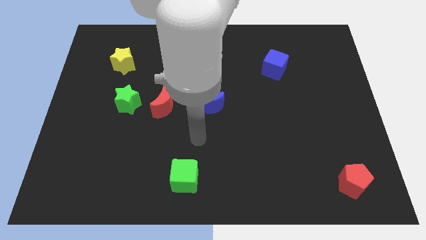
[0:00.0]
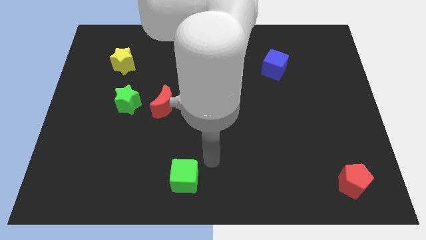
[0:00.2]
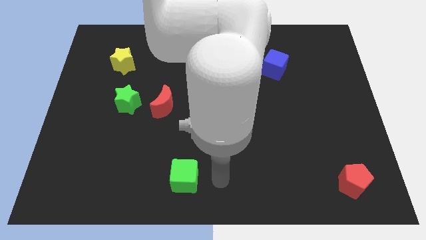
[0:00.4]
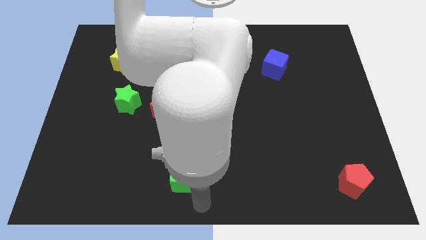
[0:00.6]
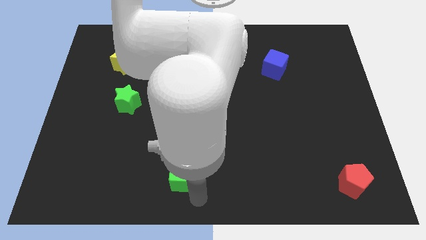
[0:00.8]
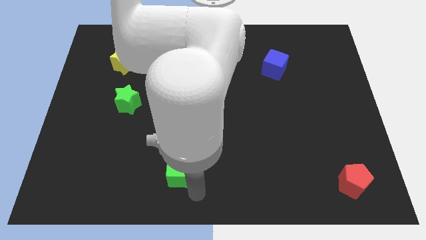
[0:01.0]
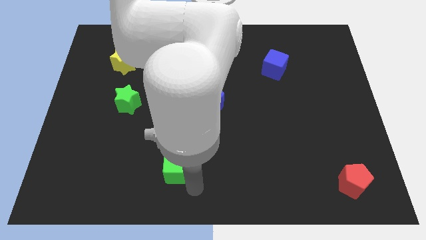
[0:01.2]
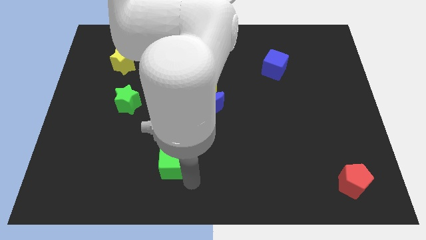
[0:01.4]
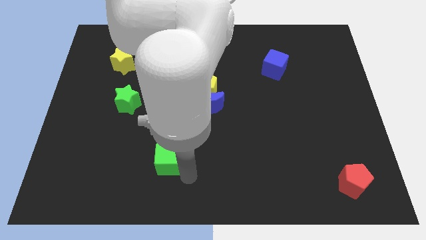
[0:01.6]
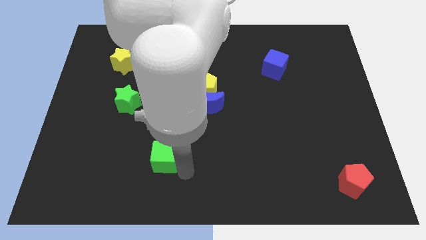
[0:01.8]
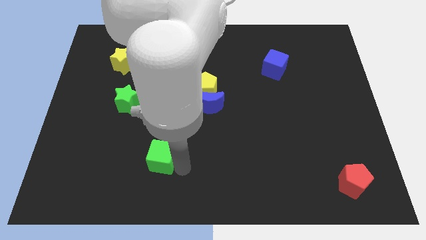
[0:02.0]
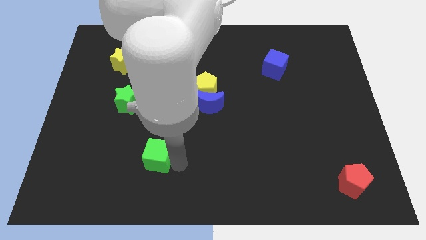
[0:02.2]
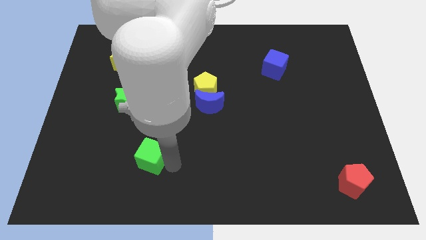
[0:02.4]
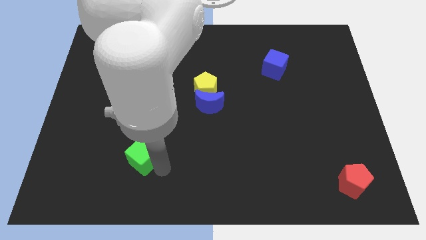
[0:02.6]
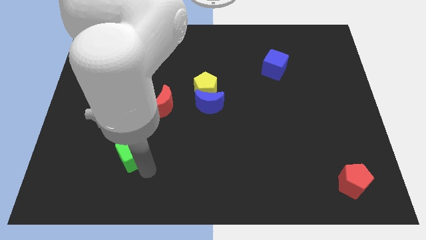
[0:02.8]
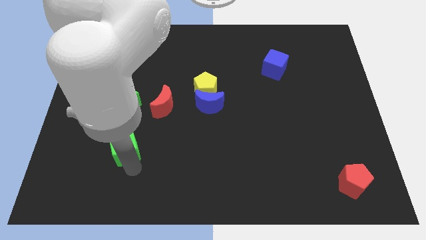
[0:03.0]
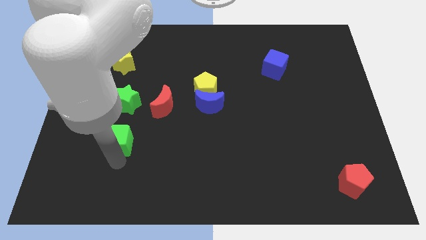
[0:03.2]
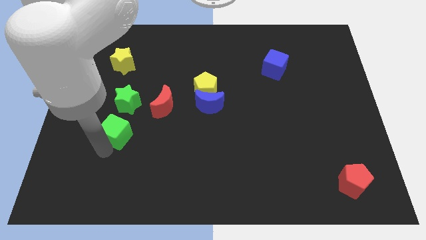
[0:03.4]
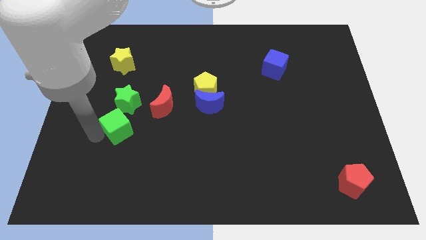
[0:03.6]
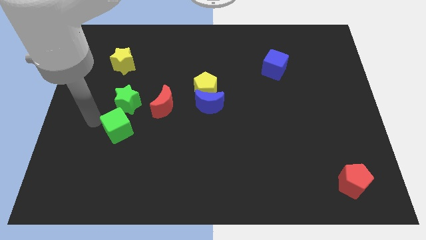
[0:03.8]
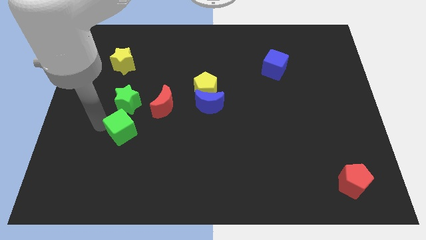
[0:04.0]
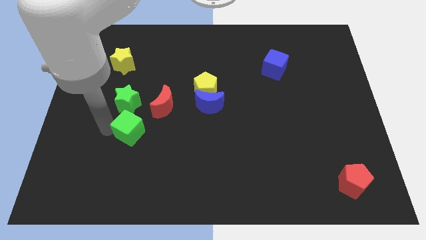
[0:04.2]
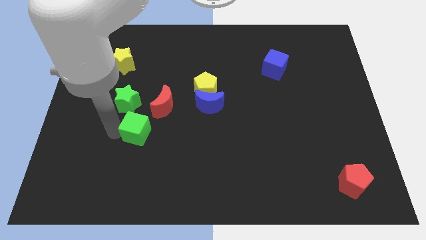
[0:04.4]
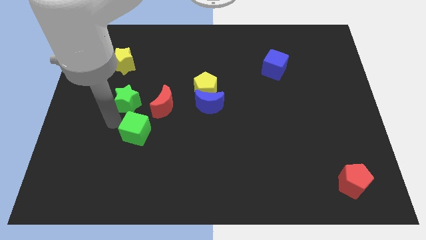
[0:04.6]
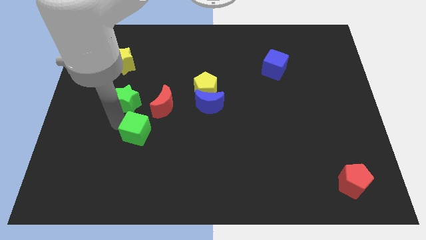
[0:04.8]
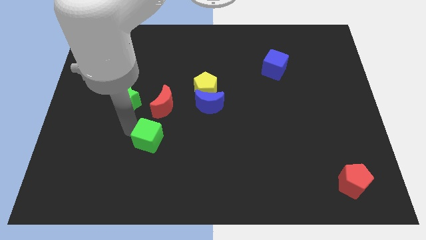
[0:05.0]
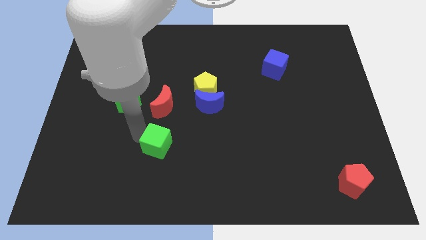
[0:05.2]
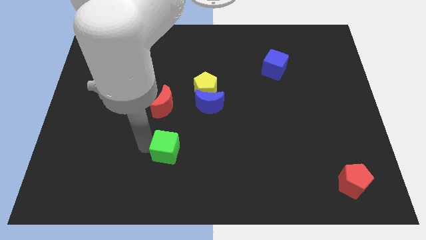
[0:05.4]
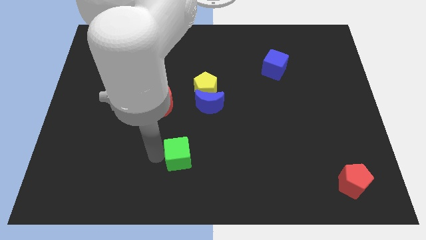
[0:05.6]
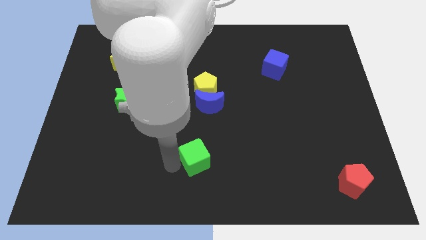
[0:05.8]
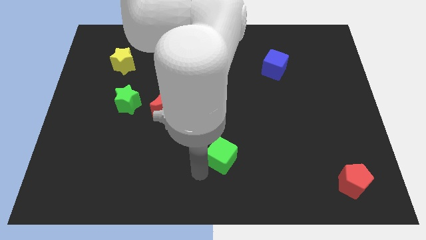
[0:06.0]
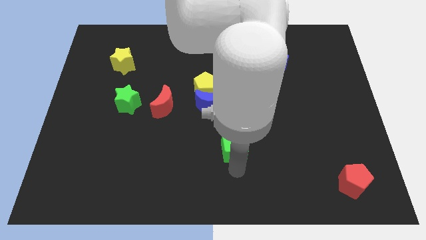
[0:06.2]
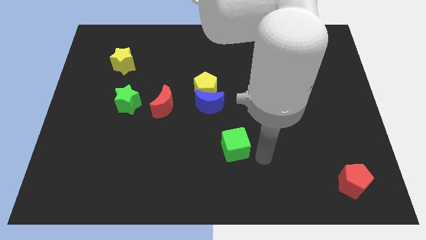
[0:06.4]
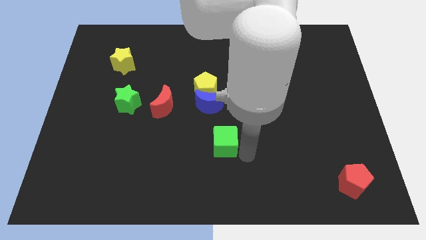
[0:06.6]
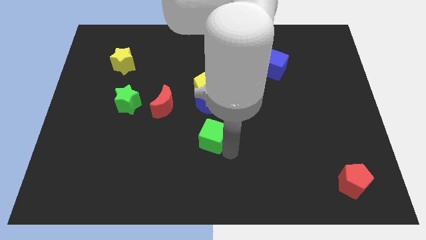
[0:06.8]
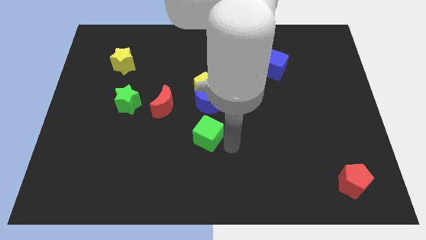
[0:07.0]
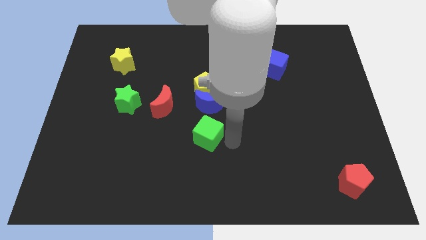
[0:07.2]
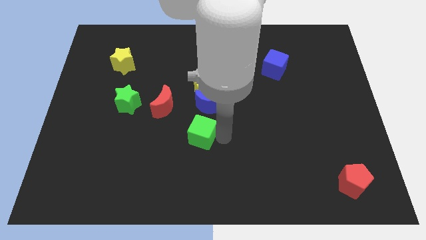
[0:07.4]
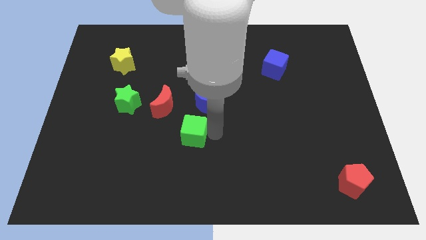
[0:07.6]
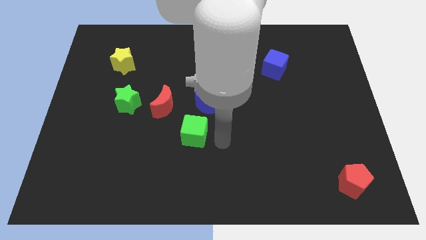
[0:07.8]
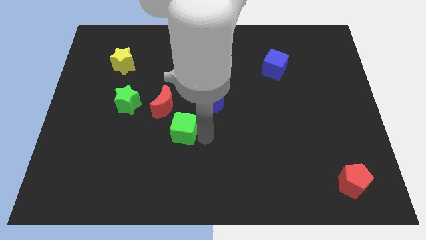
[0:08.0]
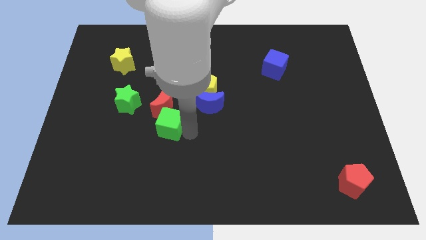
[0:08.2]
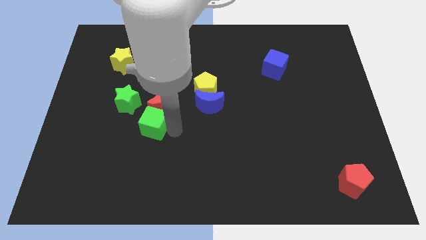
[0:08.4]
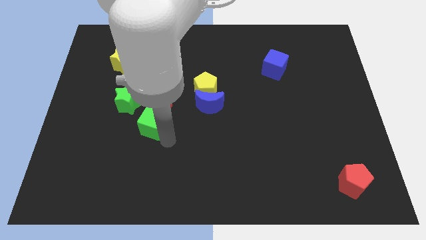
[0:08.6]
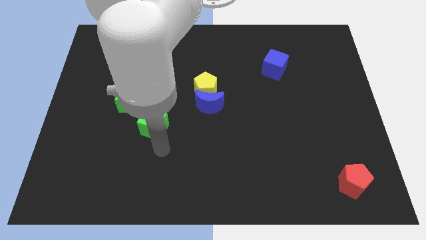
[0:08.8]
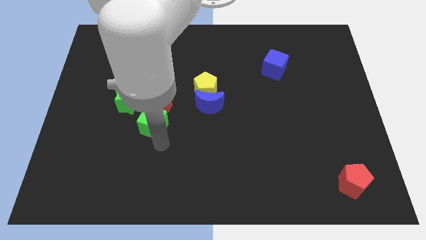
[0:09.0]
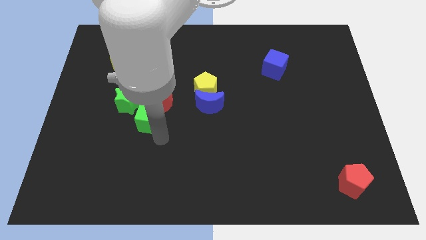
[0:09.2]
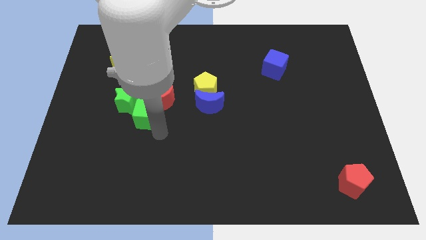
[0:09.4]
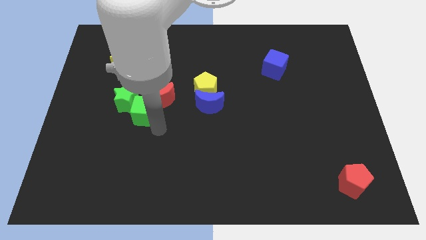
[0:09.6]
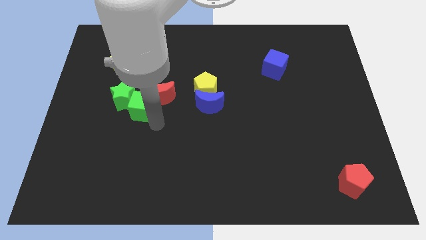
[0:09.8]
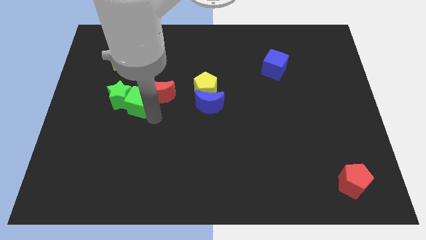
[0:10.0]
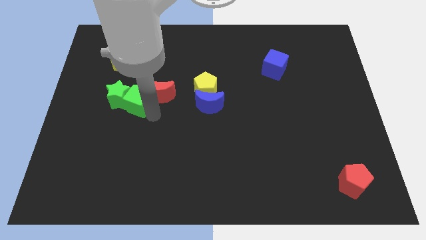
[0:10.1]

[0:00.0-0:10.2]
put the green cube to the top right side of the green star

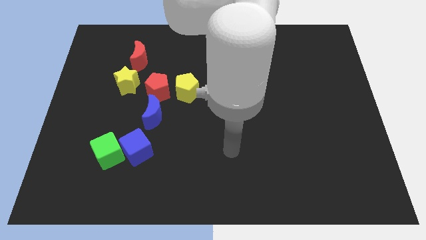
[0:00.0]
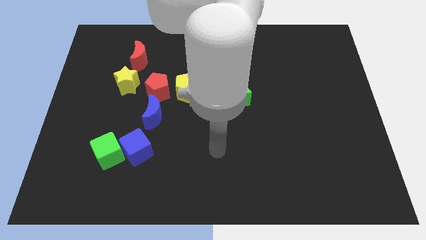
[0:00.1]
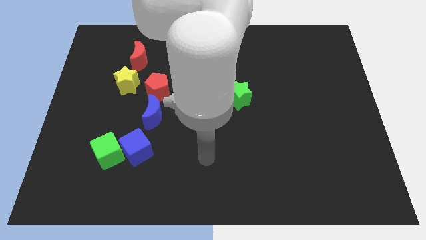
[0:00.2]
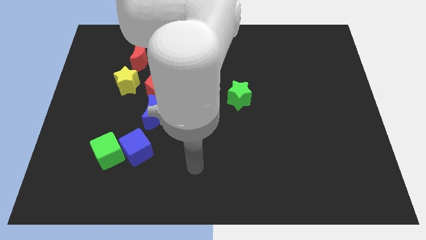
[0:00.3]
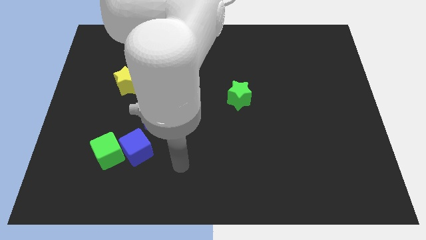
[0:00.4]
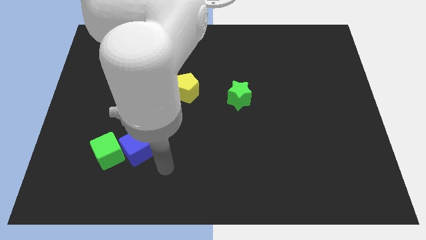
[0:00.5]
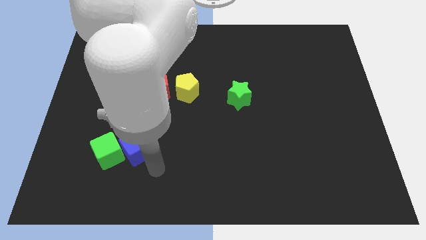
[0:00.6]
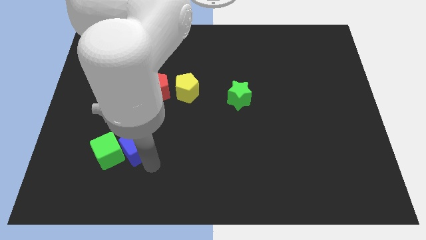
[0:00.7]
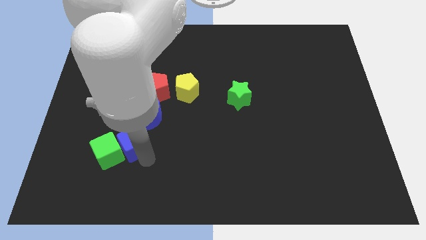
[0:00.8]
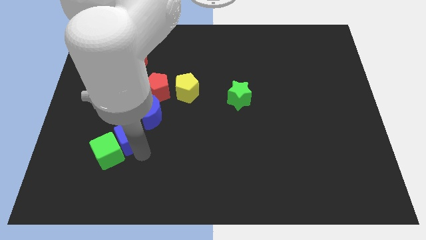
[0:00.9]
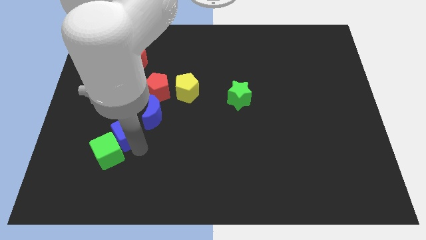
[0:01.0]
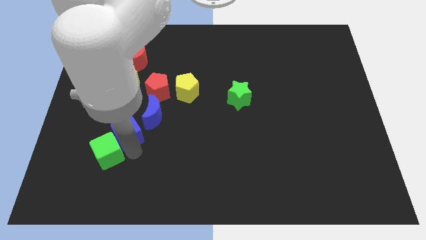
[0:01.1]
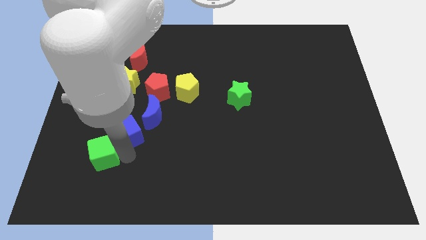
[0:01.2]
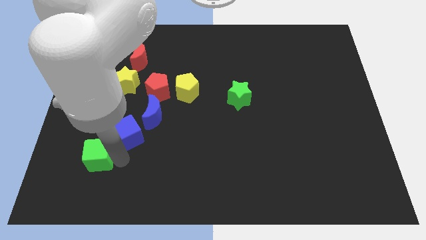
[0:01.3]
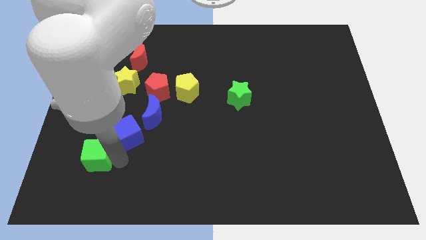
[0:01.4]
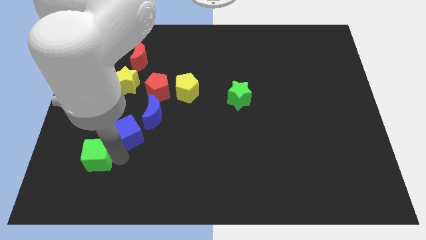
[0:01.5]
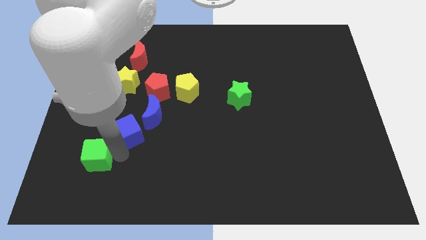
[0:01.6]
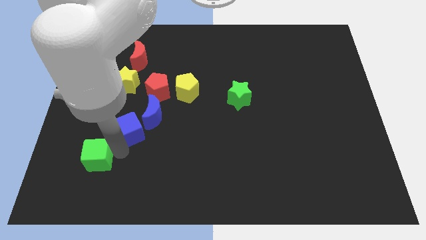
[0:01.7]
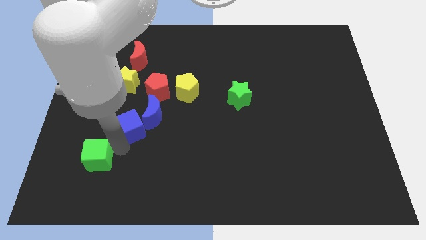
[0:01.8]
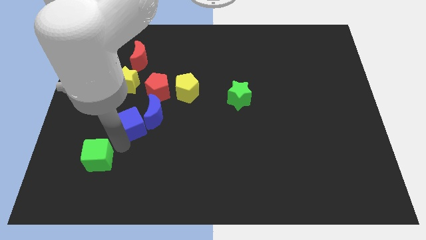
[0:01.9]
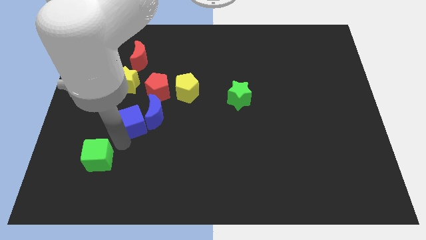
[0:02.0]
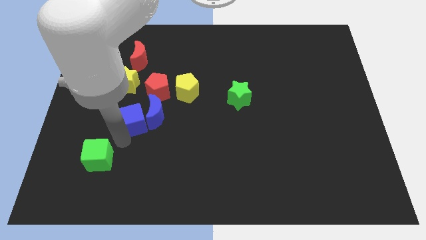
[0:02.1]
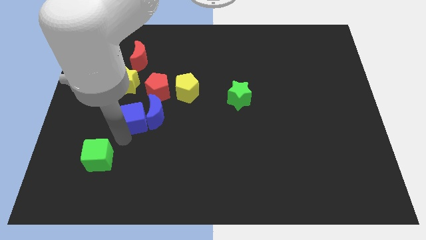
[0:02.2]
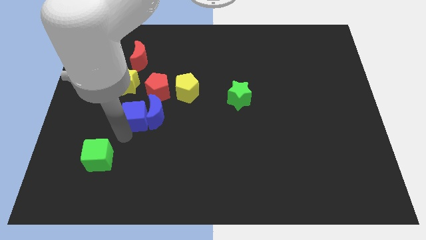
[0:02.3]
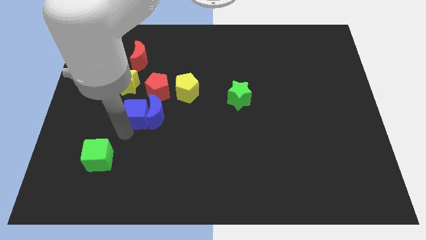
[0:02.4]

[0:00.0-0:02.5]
move the blue cube to the bottom right side of the yellow star
